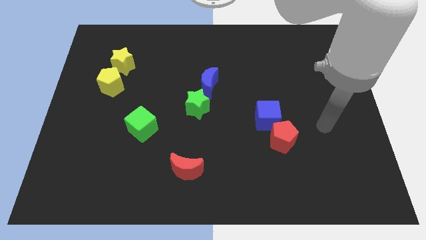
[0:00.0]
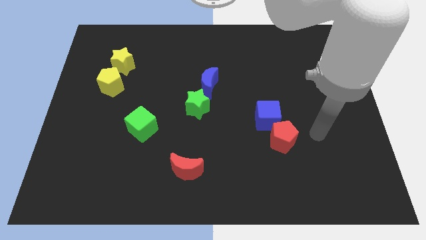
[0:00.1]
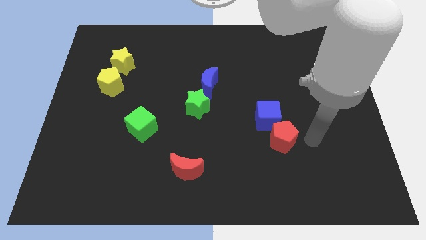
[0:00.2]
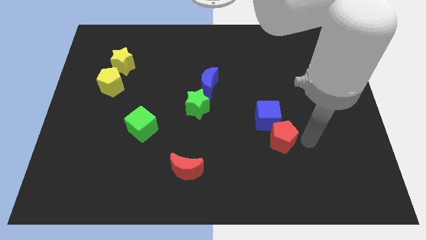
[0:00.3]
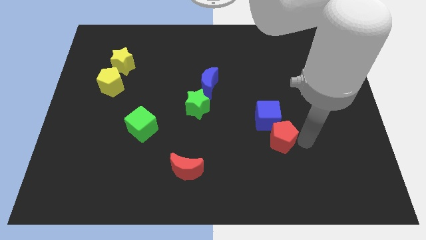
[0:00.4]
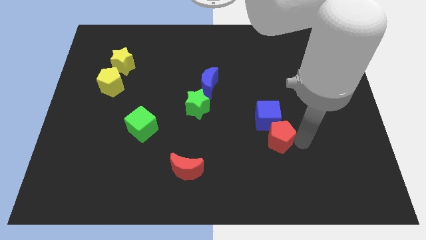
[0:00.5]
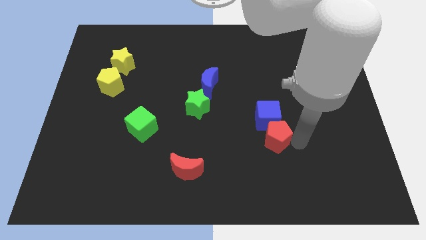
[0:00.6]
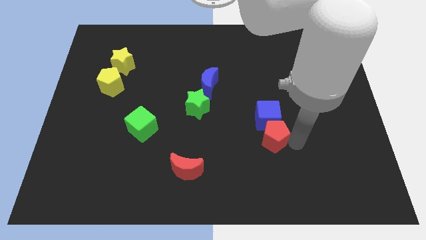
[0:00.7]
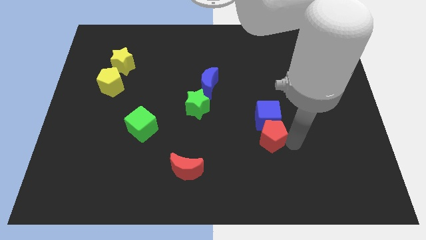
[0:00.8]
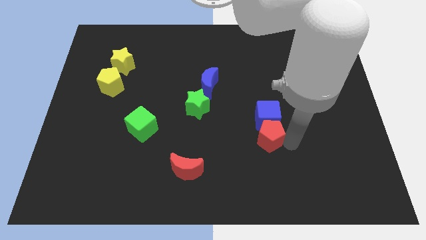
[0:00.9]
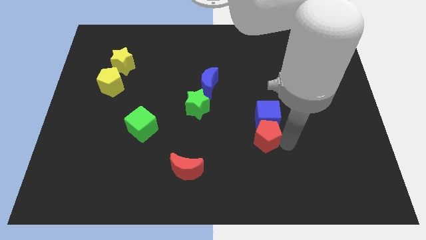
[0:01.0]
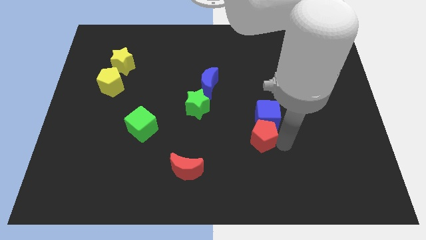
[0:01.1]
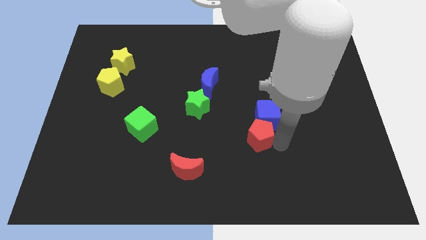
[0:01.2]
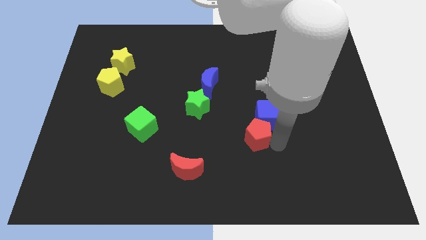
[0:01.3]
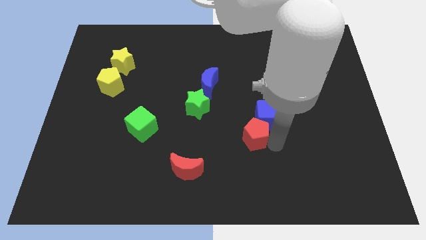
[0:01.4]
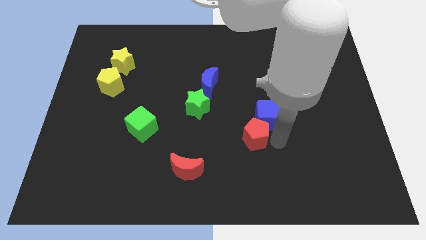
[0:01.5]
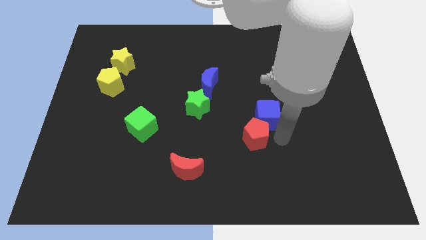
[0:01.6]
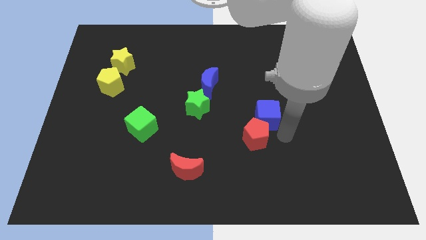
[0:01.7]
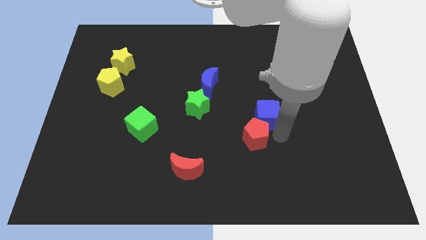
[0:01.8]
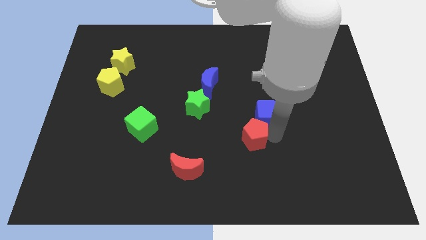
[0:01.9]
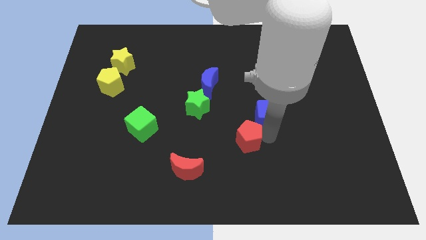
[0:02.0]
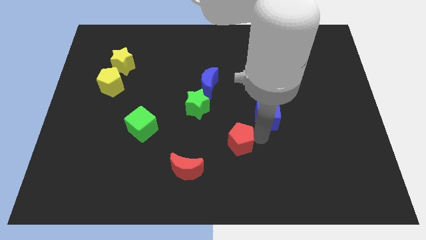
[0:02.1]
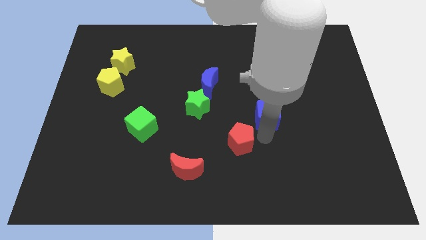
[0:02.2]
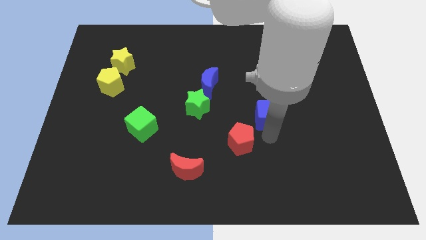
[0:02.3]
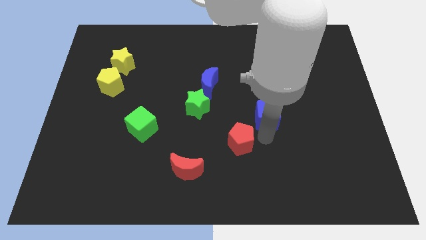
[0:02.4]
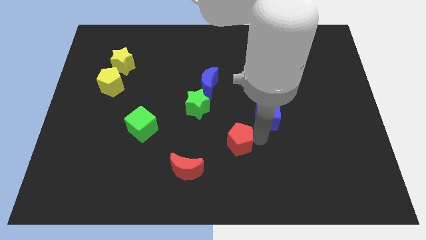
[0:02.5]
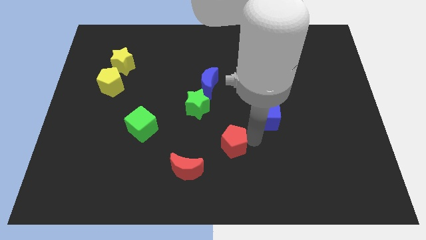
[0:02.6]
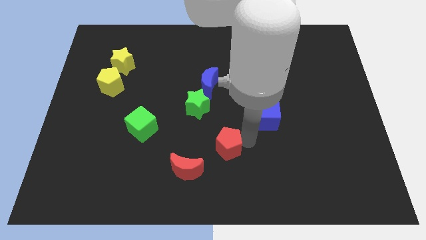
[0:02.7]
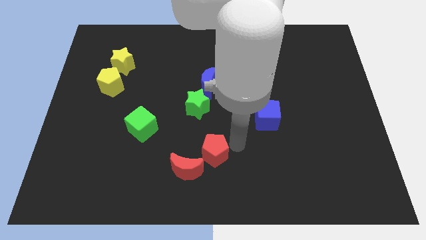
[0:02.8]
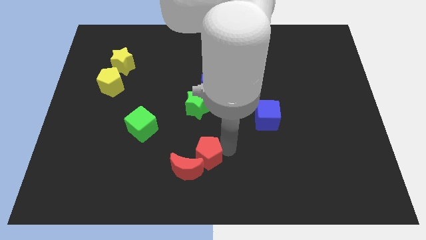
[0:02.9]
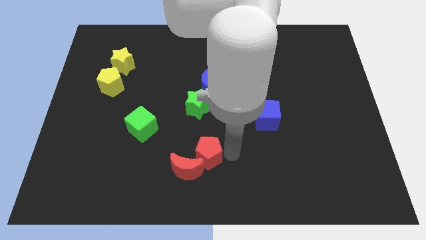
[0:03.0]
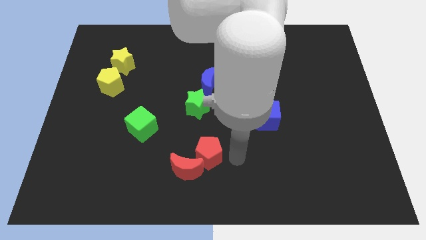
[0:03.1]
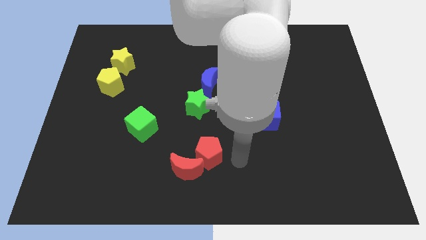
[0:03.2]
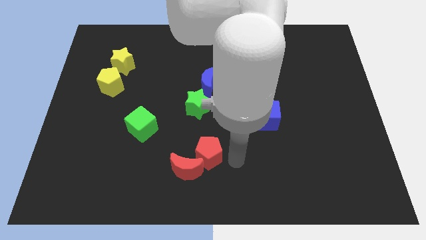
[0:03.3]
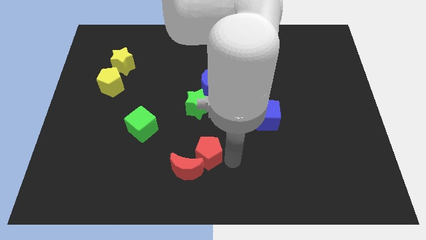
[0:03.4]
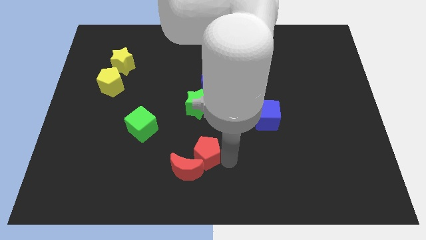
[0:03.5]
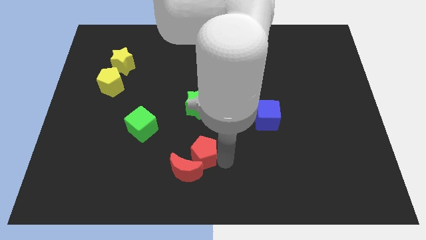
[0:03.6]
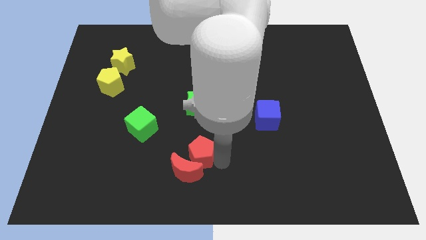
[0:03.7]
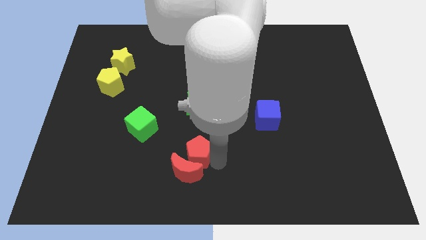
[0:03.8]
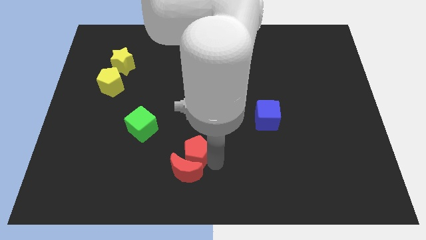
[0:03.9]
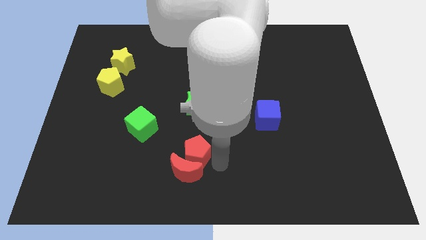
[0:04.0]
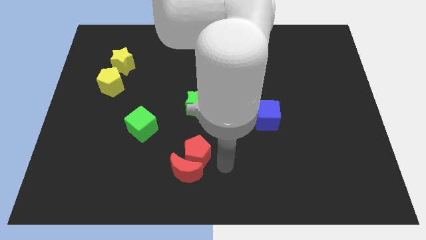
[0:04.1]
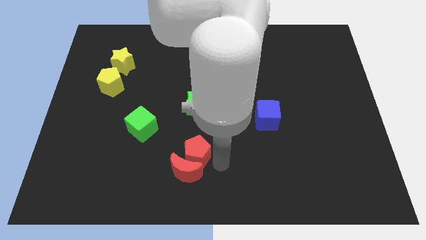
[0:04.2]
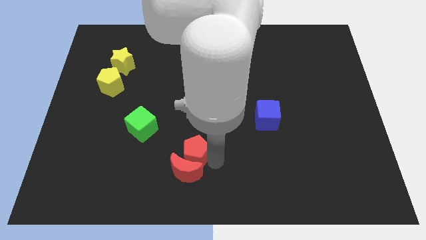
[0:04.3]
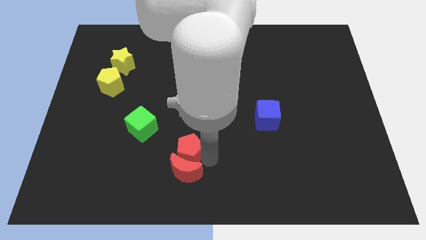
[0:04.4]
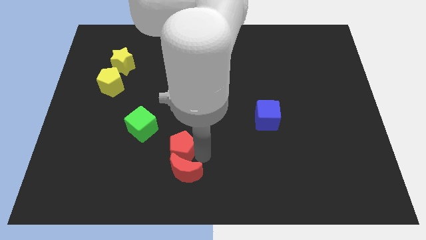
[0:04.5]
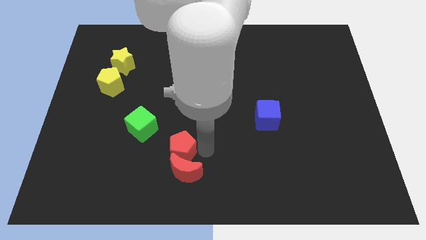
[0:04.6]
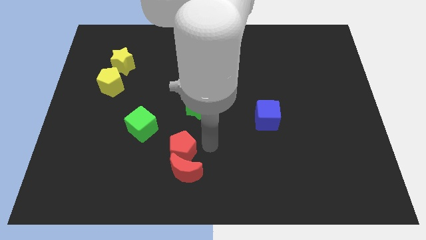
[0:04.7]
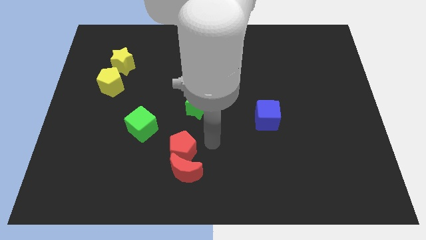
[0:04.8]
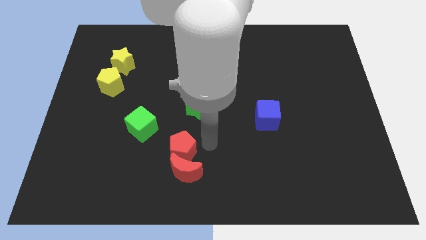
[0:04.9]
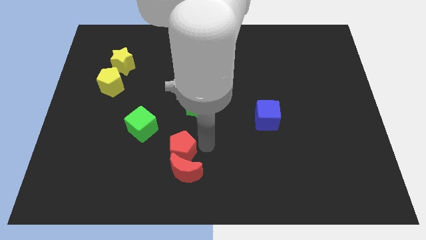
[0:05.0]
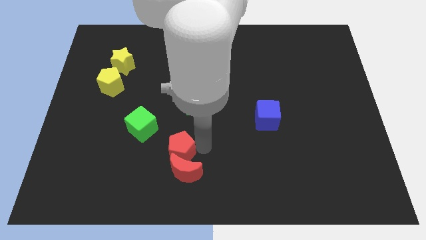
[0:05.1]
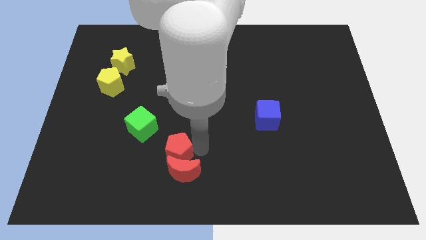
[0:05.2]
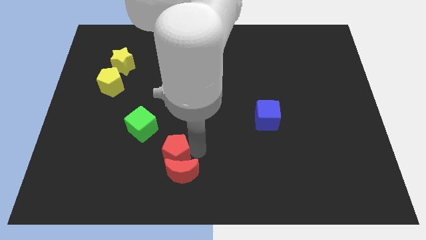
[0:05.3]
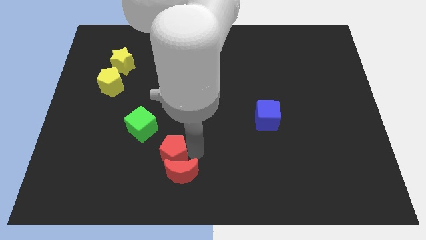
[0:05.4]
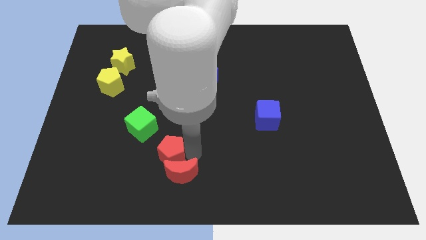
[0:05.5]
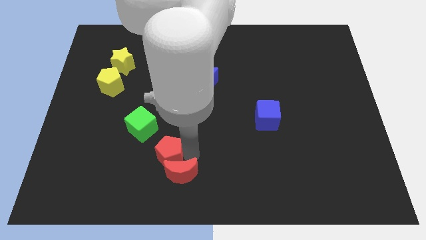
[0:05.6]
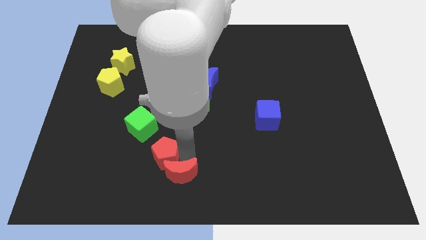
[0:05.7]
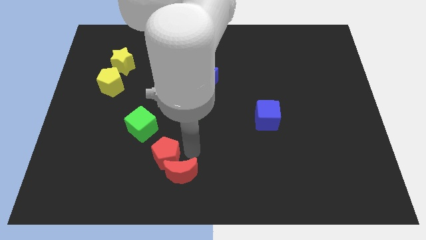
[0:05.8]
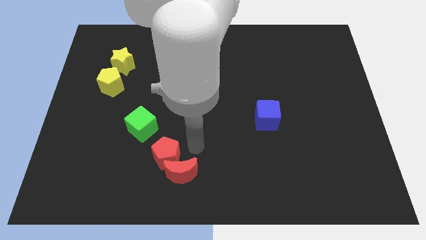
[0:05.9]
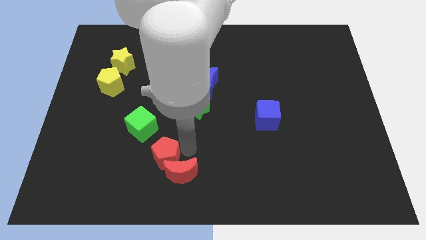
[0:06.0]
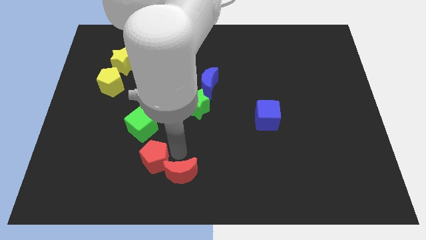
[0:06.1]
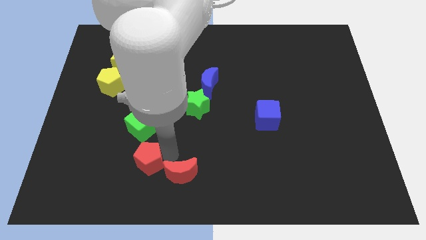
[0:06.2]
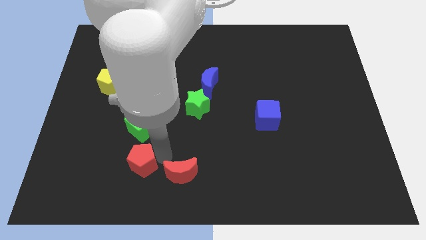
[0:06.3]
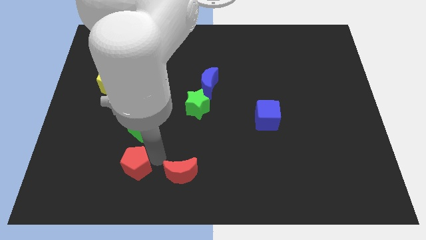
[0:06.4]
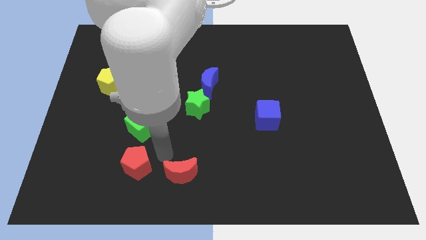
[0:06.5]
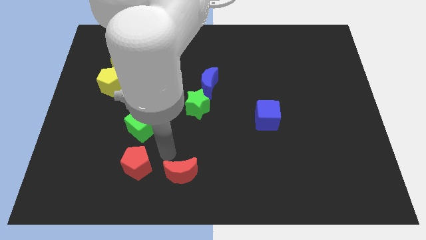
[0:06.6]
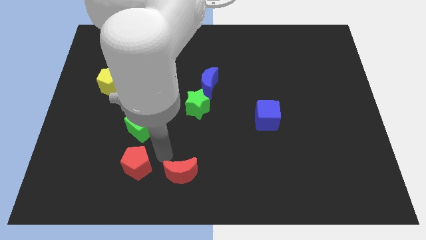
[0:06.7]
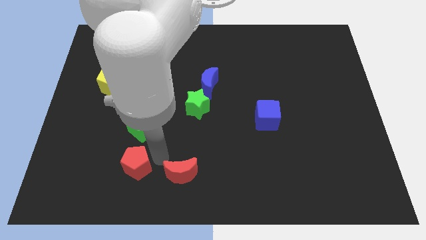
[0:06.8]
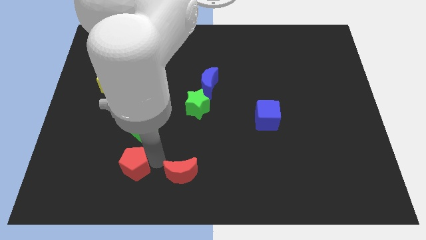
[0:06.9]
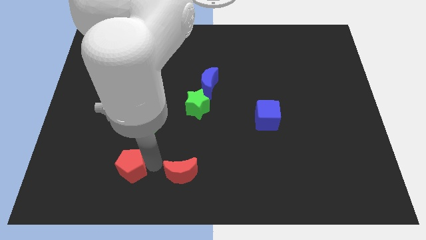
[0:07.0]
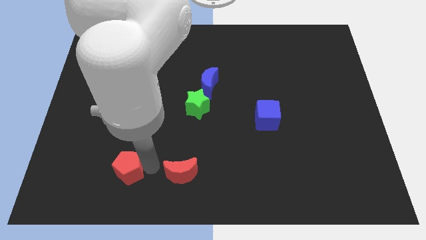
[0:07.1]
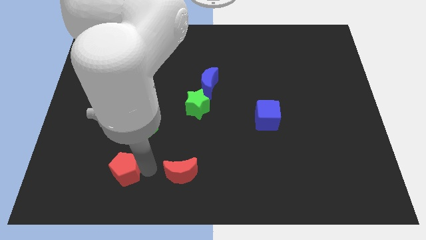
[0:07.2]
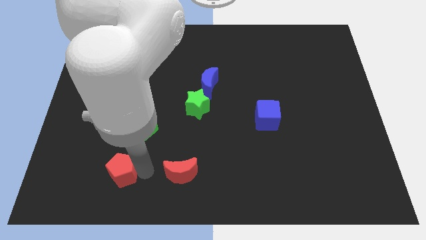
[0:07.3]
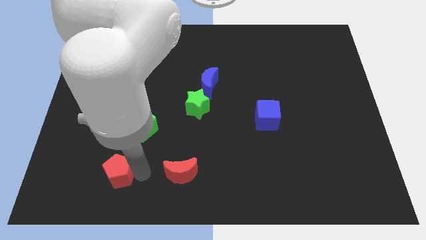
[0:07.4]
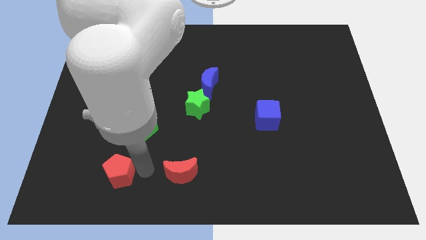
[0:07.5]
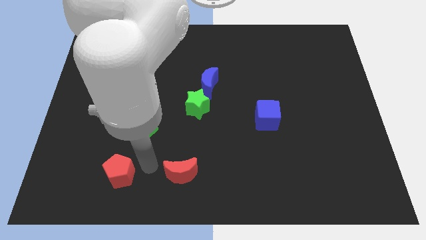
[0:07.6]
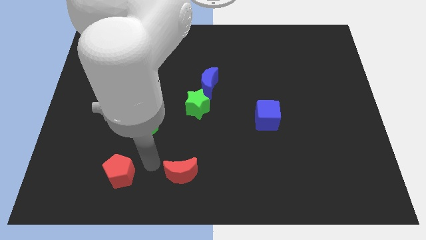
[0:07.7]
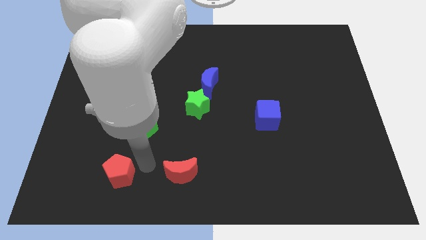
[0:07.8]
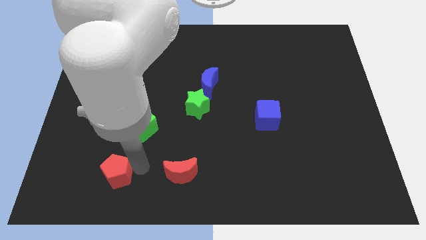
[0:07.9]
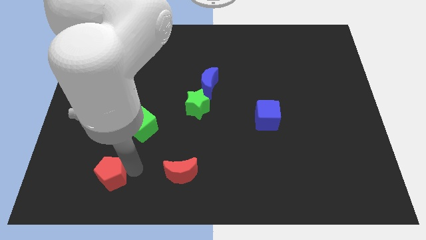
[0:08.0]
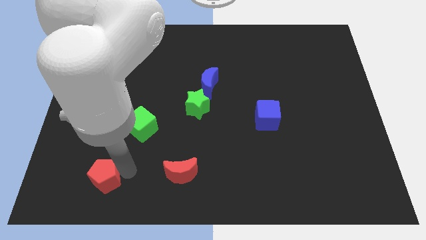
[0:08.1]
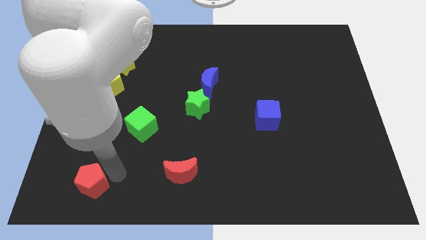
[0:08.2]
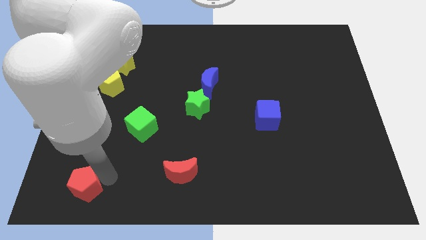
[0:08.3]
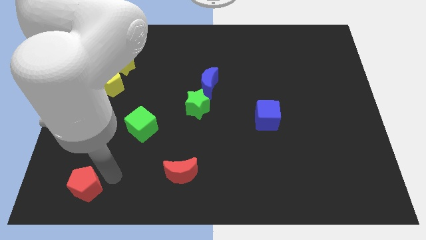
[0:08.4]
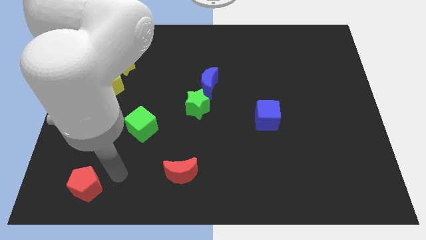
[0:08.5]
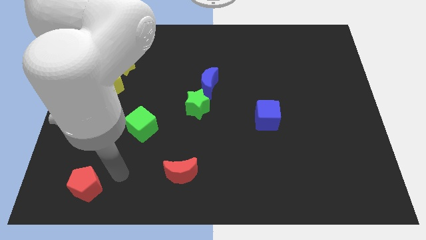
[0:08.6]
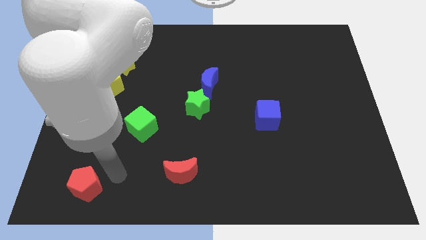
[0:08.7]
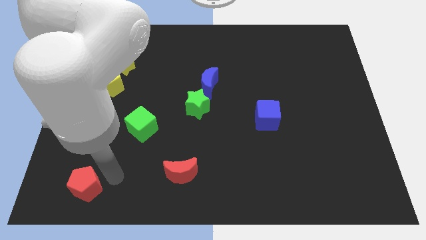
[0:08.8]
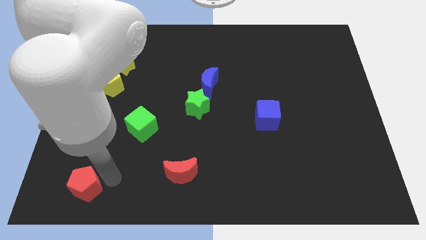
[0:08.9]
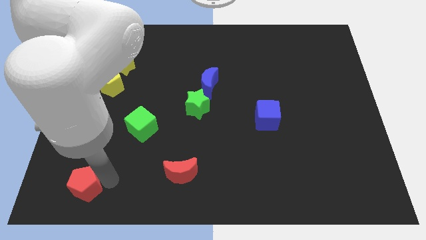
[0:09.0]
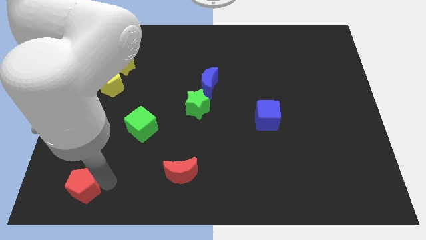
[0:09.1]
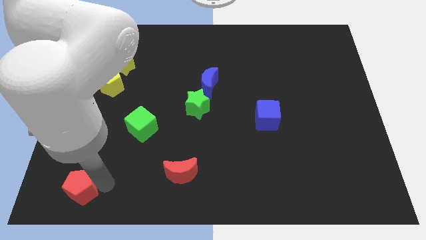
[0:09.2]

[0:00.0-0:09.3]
put the red pentagon to the lower left corner
